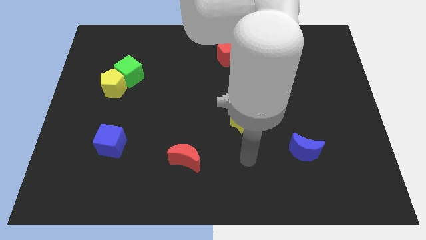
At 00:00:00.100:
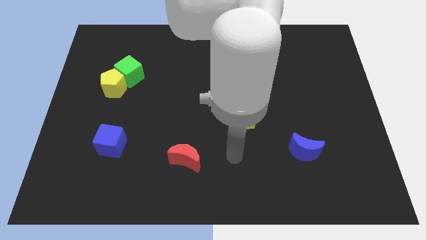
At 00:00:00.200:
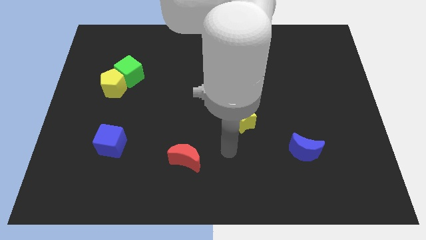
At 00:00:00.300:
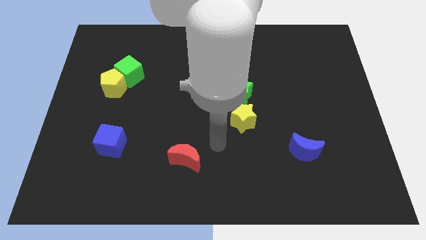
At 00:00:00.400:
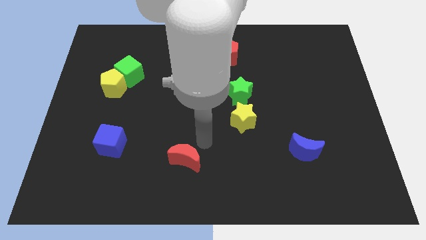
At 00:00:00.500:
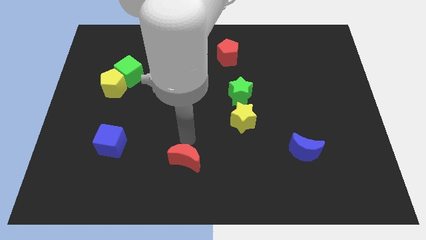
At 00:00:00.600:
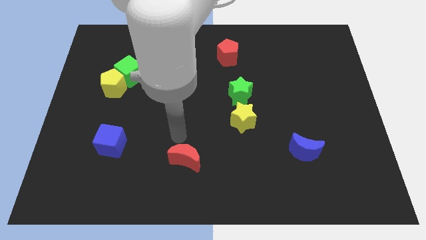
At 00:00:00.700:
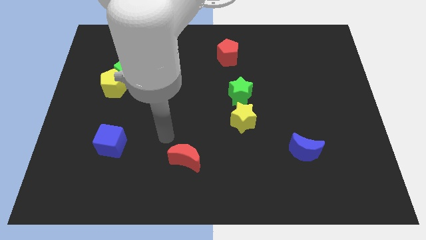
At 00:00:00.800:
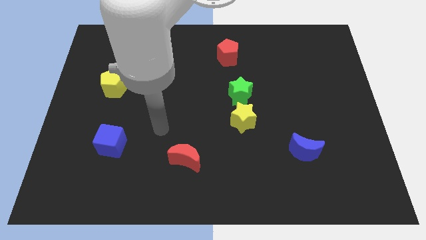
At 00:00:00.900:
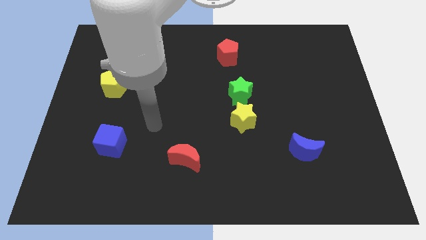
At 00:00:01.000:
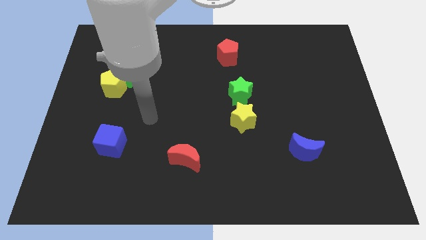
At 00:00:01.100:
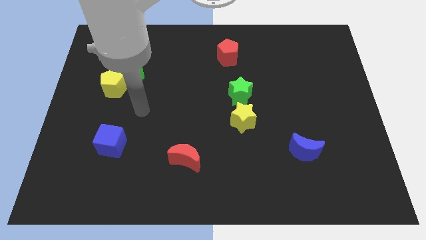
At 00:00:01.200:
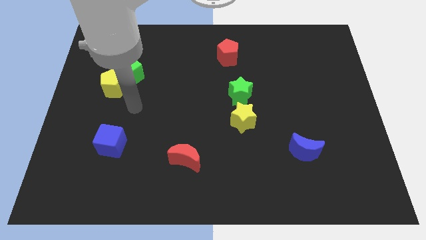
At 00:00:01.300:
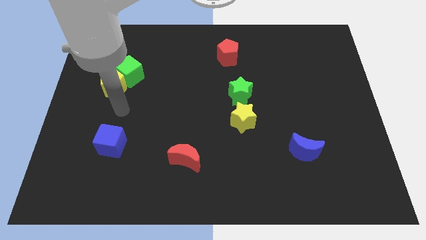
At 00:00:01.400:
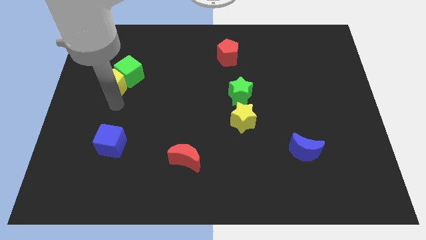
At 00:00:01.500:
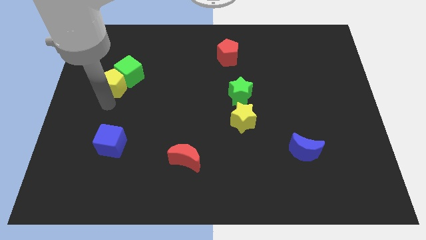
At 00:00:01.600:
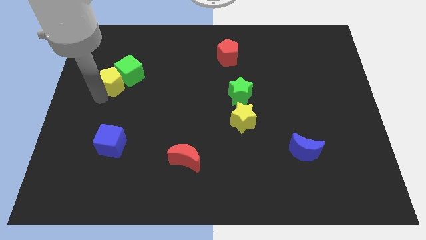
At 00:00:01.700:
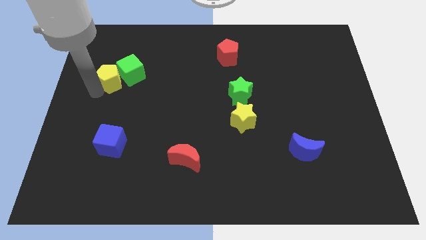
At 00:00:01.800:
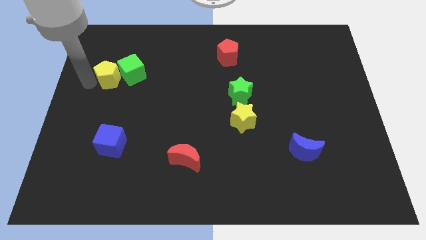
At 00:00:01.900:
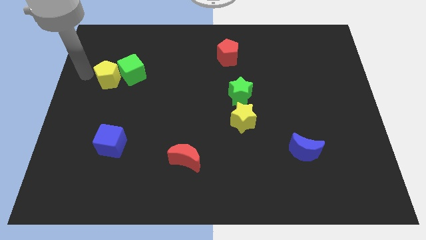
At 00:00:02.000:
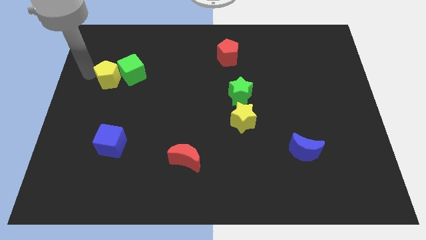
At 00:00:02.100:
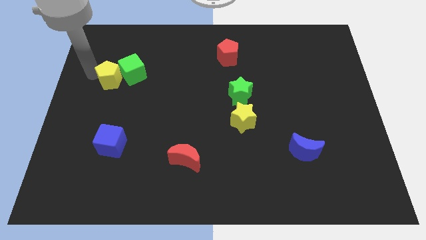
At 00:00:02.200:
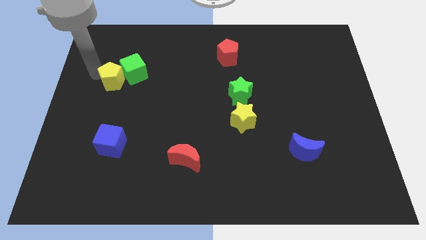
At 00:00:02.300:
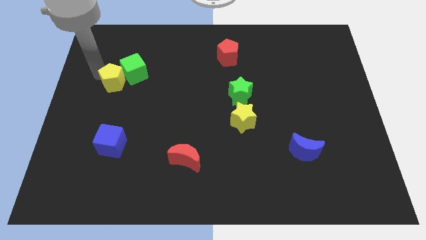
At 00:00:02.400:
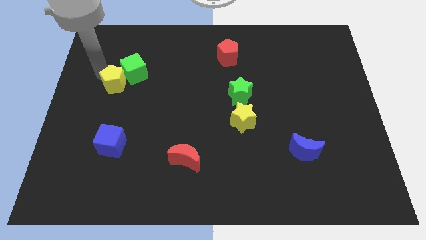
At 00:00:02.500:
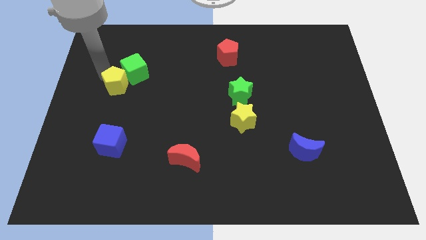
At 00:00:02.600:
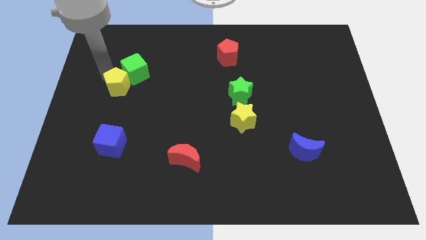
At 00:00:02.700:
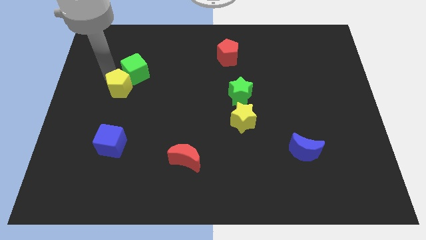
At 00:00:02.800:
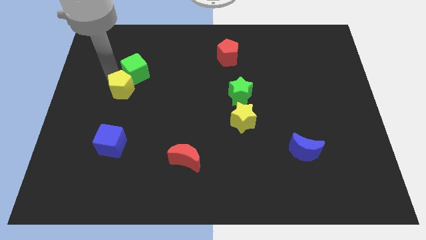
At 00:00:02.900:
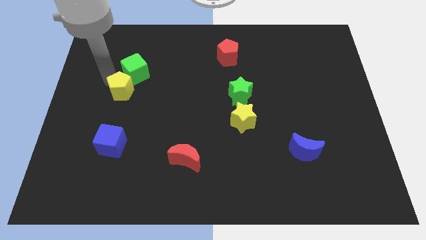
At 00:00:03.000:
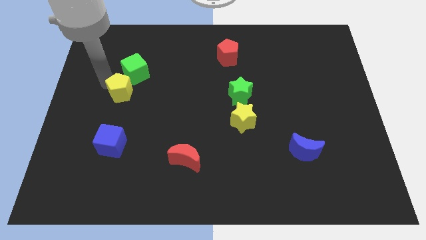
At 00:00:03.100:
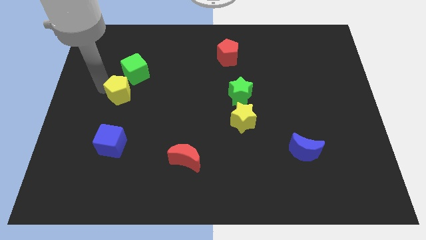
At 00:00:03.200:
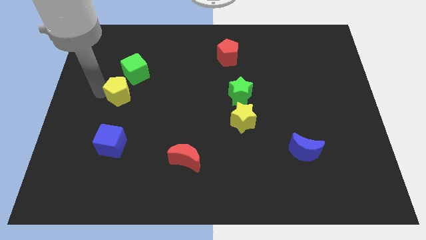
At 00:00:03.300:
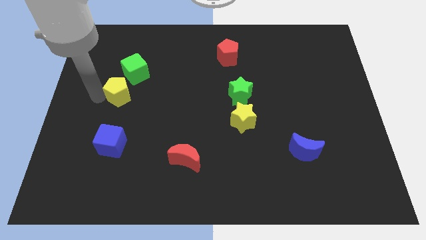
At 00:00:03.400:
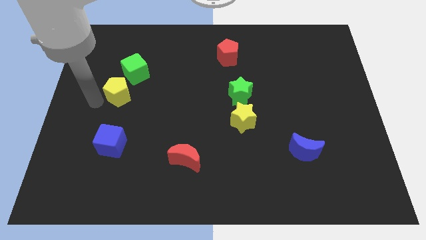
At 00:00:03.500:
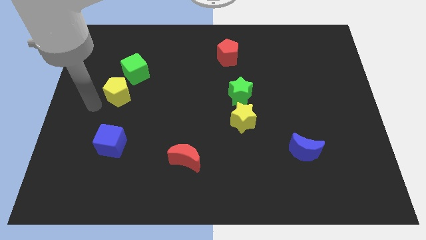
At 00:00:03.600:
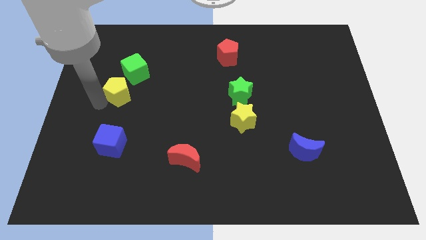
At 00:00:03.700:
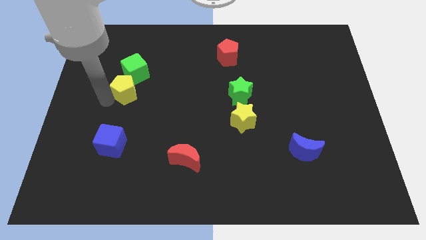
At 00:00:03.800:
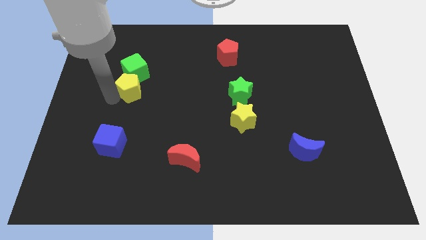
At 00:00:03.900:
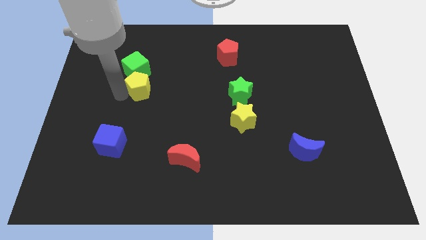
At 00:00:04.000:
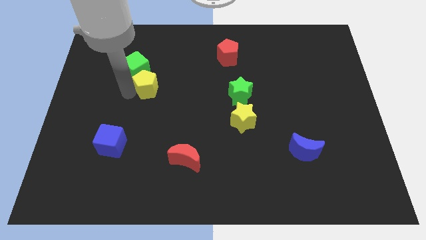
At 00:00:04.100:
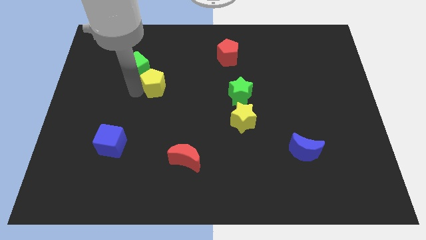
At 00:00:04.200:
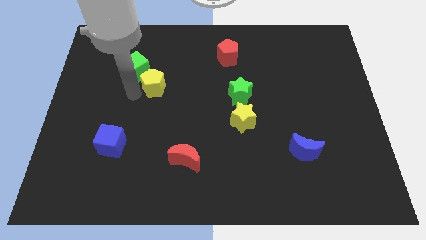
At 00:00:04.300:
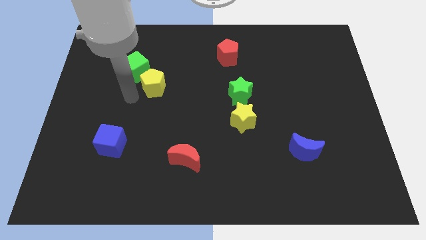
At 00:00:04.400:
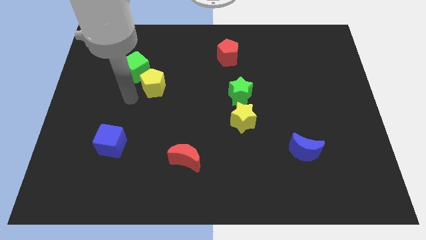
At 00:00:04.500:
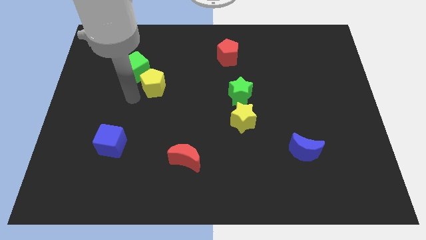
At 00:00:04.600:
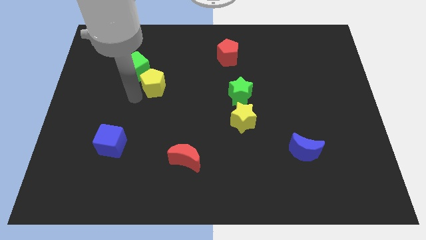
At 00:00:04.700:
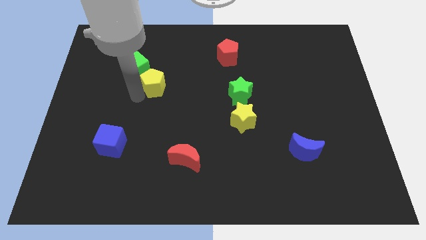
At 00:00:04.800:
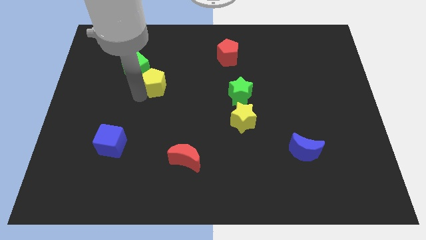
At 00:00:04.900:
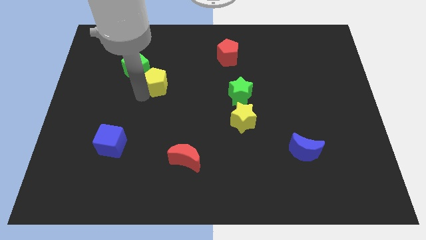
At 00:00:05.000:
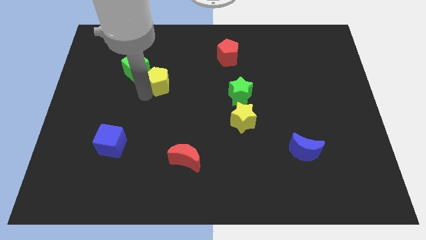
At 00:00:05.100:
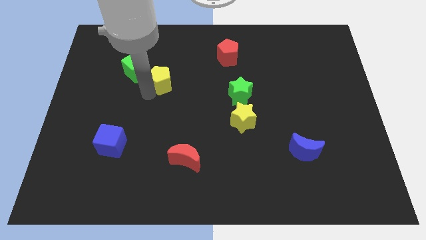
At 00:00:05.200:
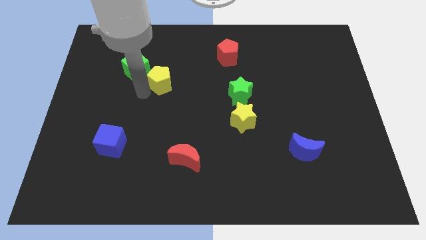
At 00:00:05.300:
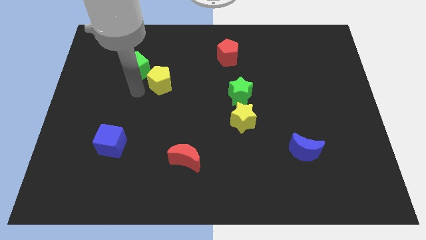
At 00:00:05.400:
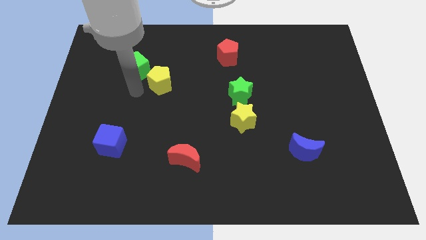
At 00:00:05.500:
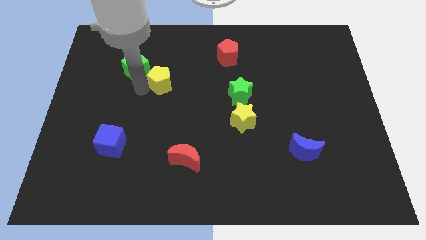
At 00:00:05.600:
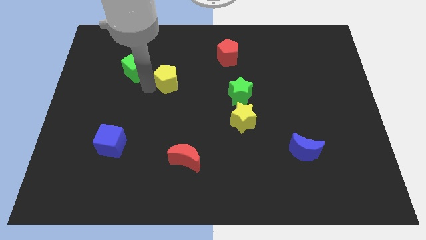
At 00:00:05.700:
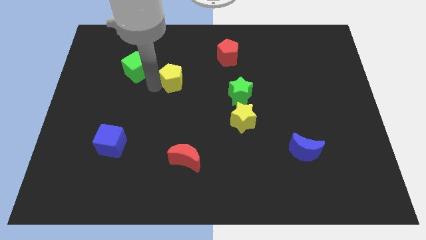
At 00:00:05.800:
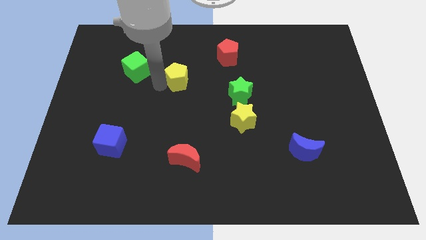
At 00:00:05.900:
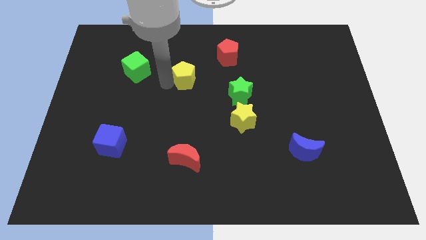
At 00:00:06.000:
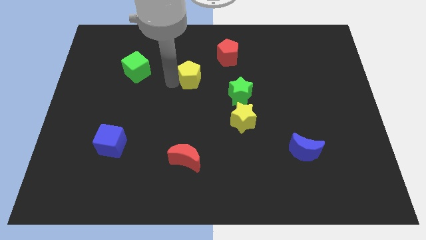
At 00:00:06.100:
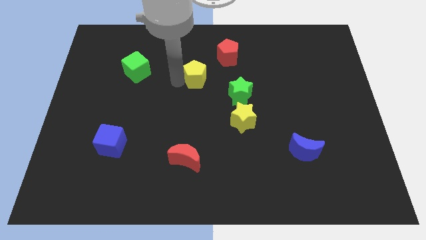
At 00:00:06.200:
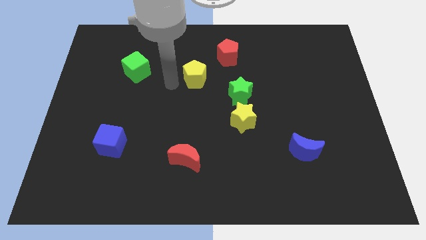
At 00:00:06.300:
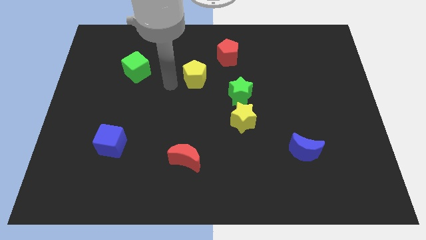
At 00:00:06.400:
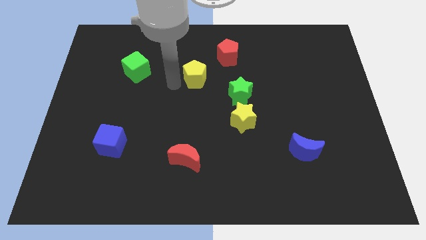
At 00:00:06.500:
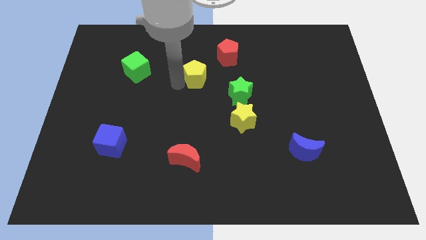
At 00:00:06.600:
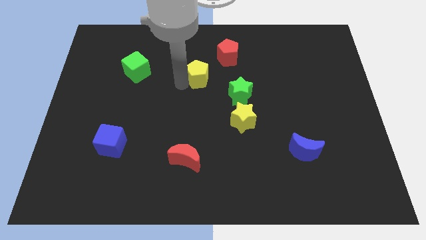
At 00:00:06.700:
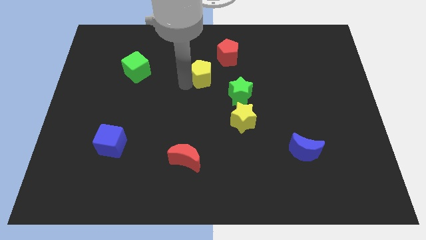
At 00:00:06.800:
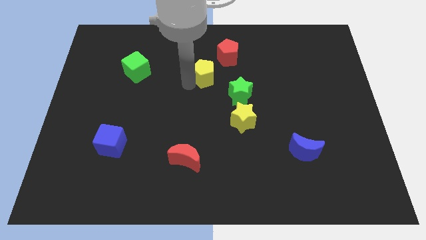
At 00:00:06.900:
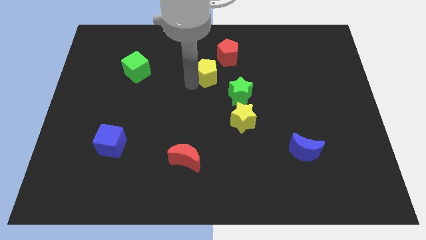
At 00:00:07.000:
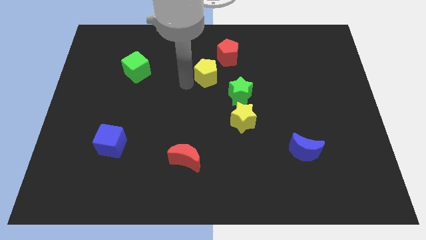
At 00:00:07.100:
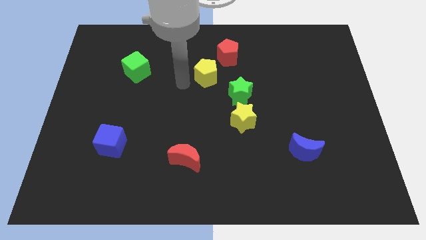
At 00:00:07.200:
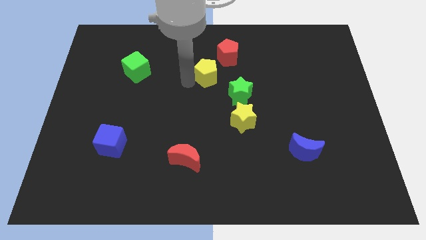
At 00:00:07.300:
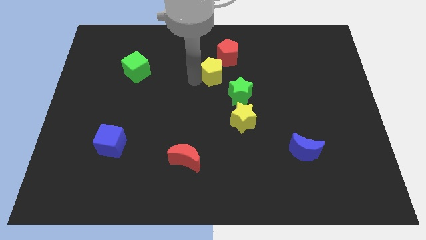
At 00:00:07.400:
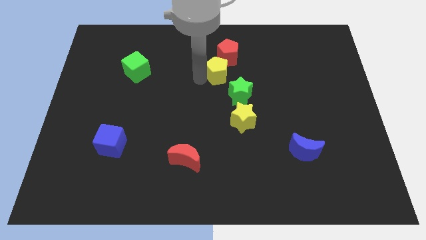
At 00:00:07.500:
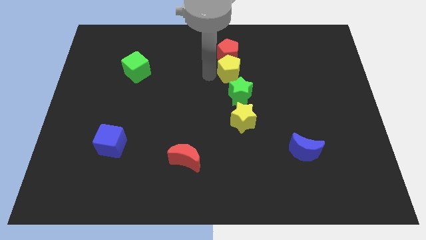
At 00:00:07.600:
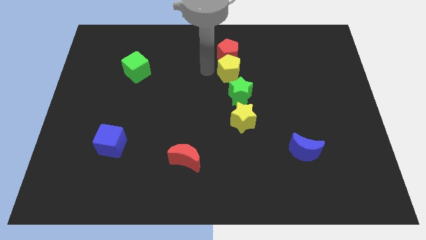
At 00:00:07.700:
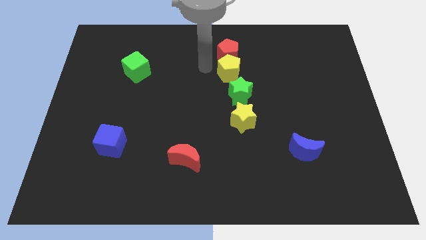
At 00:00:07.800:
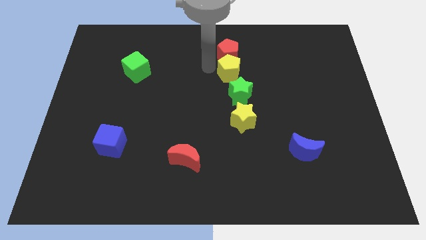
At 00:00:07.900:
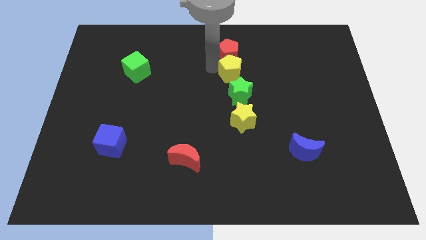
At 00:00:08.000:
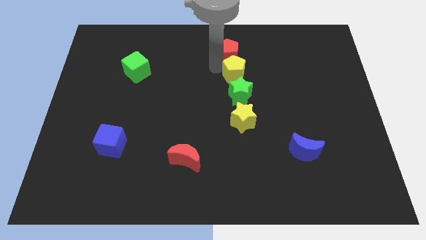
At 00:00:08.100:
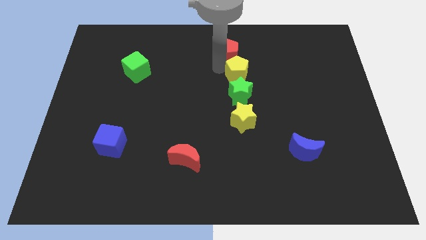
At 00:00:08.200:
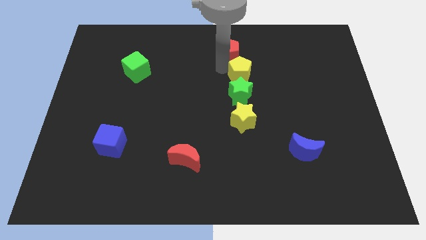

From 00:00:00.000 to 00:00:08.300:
slide the yellow pentagon to the top right side of the green star
